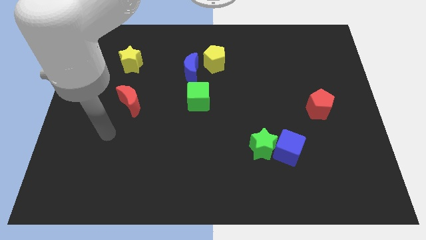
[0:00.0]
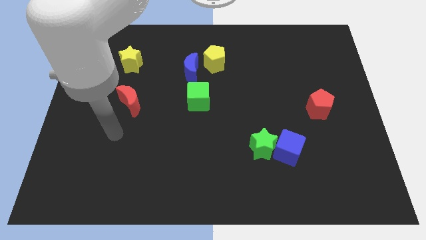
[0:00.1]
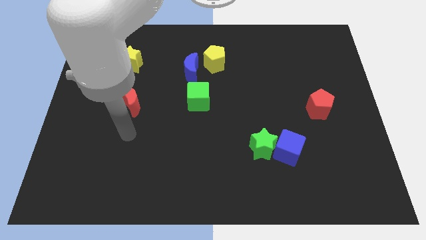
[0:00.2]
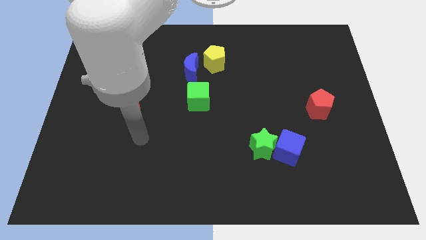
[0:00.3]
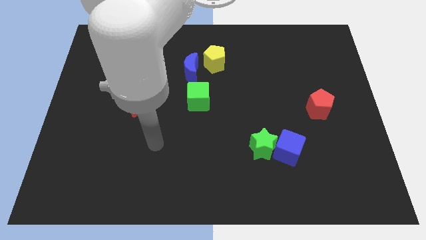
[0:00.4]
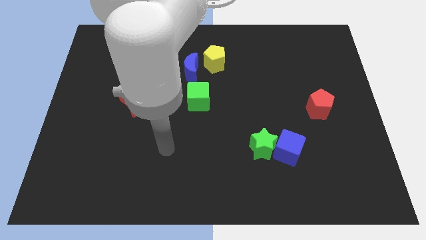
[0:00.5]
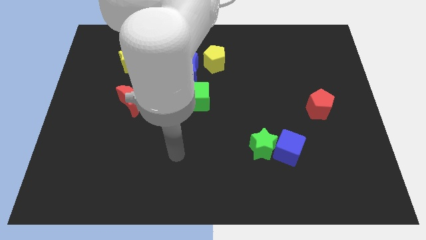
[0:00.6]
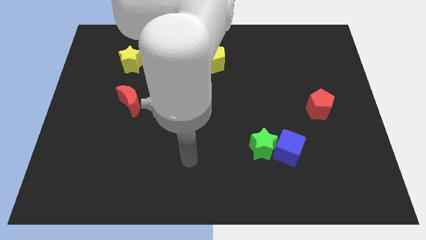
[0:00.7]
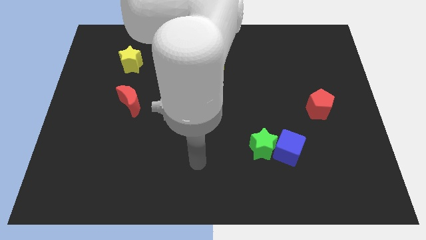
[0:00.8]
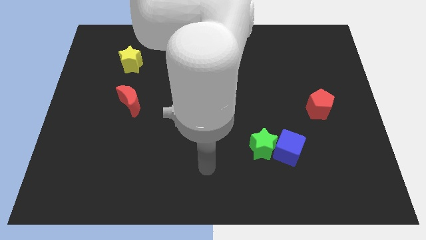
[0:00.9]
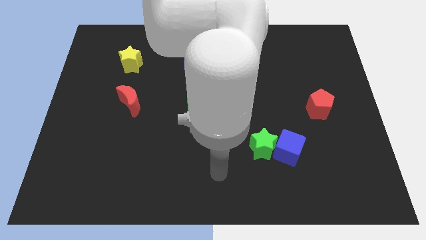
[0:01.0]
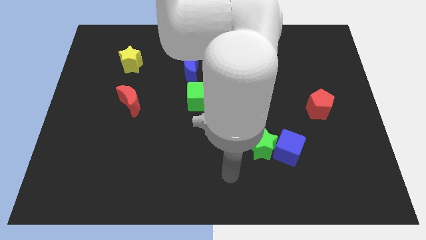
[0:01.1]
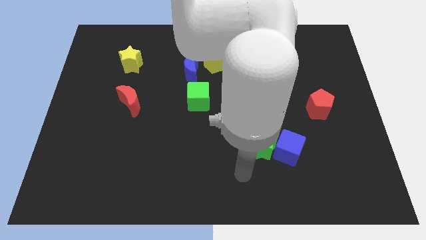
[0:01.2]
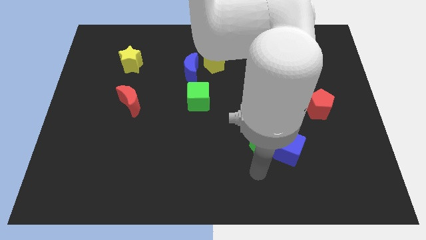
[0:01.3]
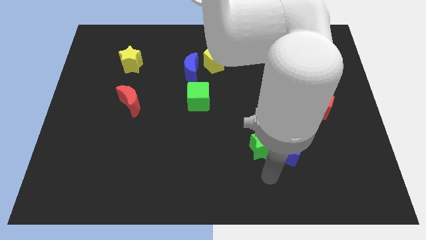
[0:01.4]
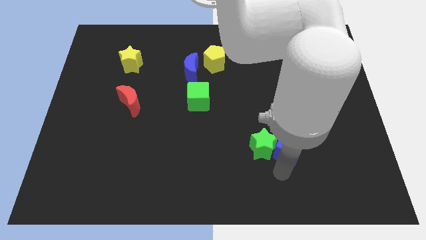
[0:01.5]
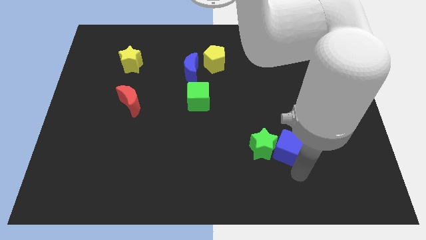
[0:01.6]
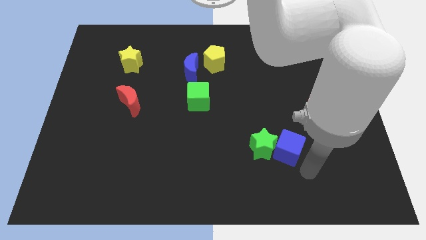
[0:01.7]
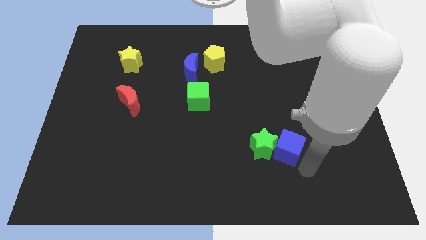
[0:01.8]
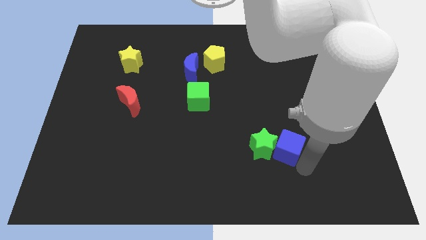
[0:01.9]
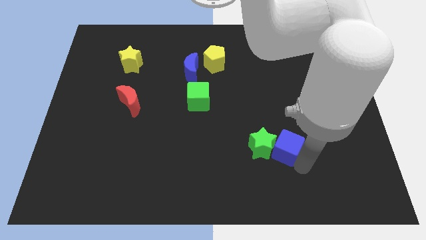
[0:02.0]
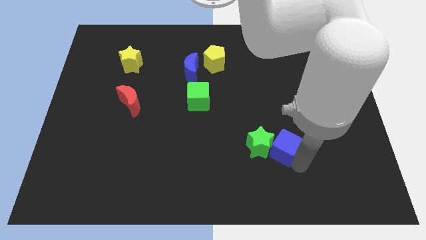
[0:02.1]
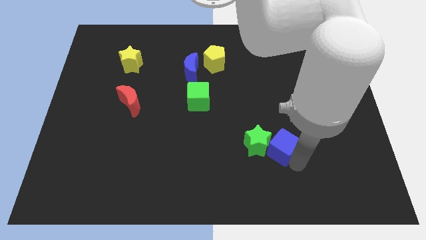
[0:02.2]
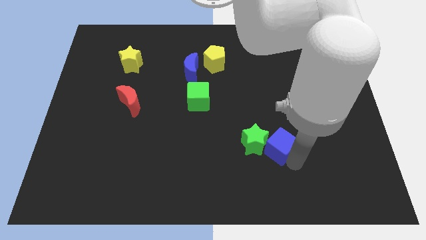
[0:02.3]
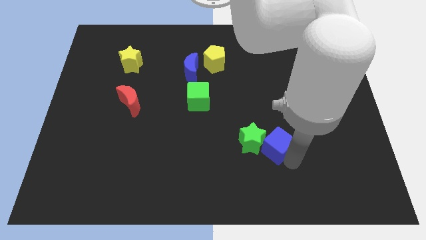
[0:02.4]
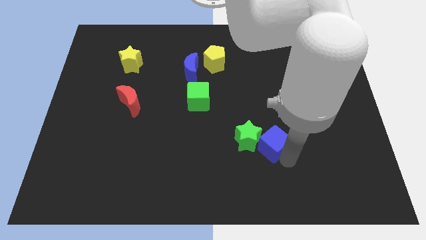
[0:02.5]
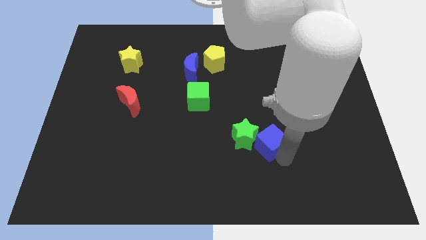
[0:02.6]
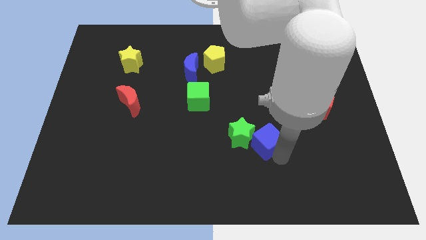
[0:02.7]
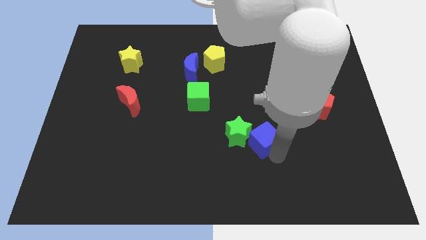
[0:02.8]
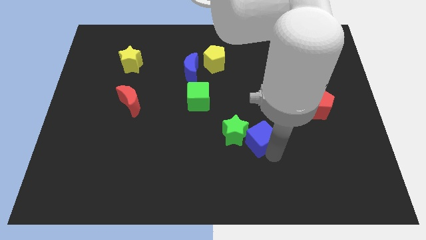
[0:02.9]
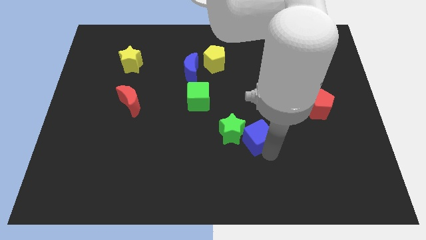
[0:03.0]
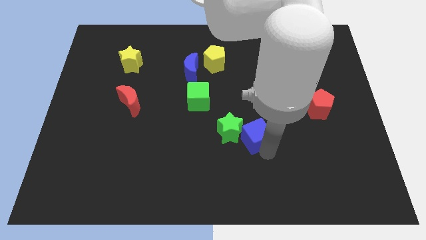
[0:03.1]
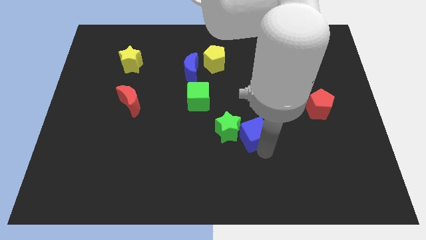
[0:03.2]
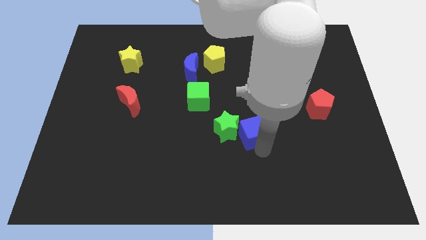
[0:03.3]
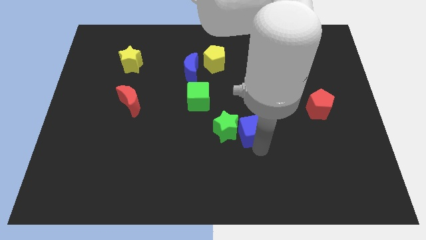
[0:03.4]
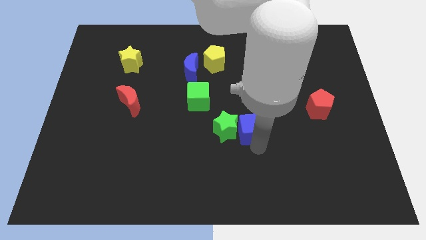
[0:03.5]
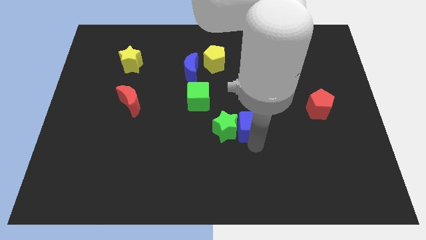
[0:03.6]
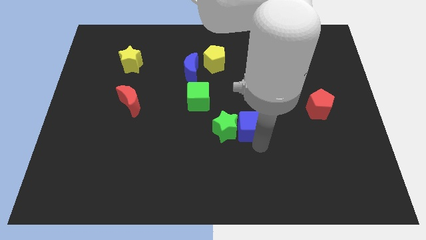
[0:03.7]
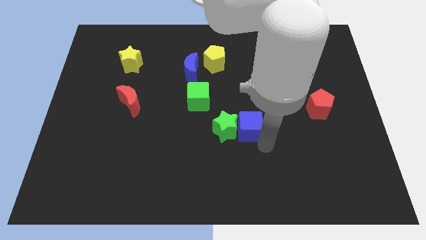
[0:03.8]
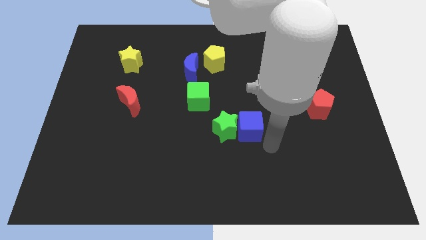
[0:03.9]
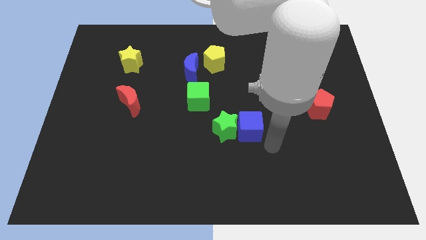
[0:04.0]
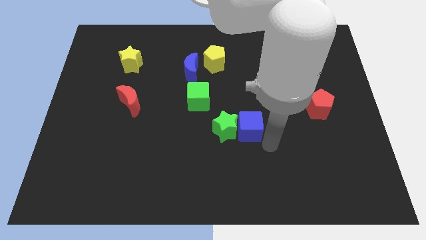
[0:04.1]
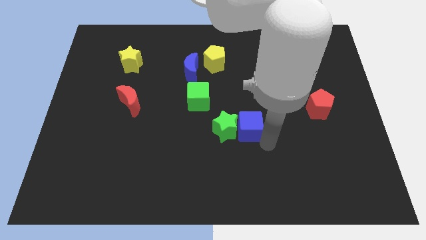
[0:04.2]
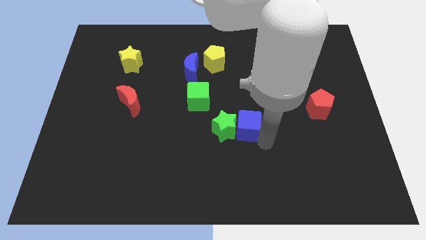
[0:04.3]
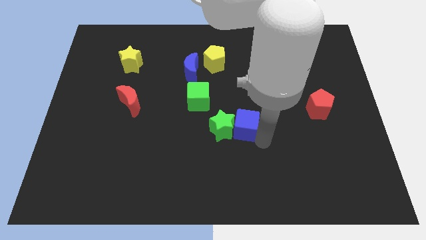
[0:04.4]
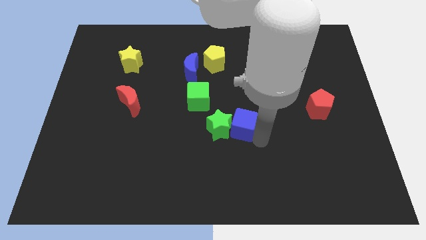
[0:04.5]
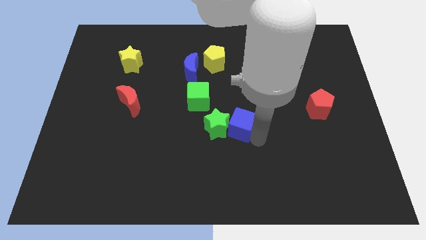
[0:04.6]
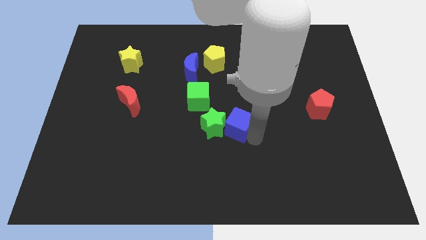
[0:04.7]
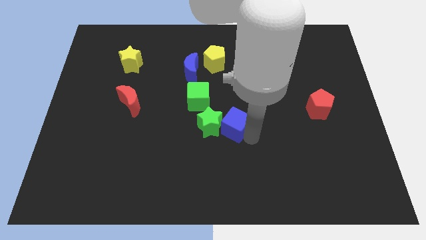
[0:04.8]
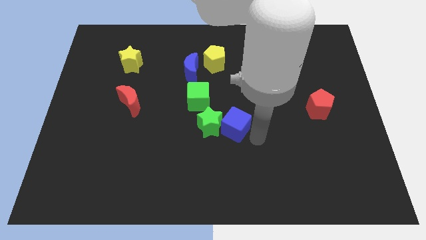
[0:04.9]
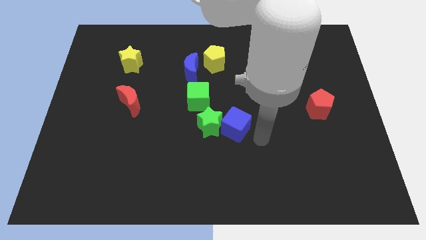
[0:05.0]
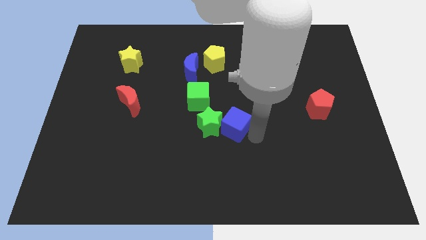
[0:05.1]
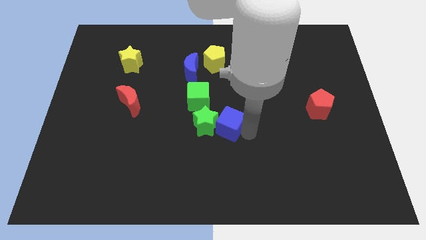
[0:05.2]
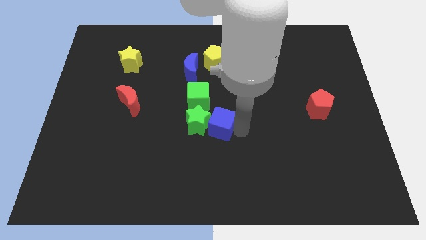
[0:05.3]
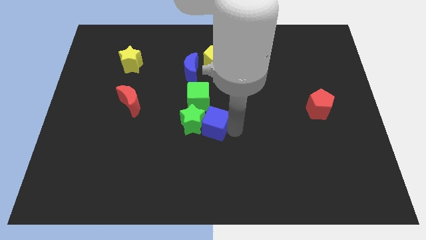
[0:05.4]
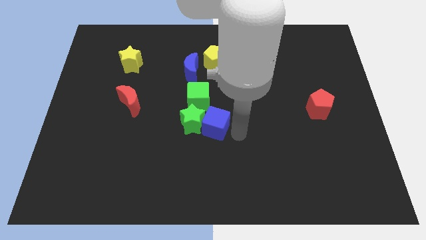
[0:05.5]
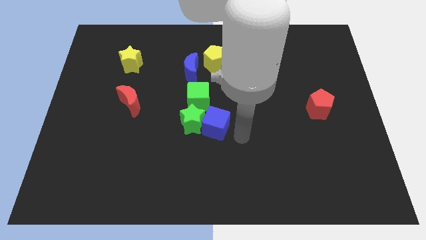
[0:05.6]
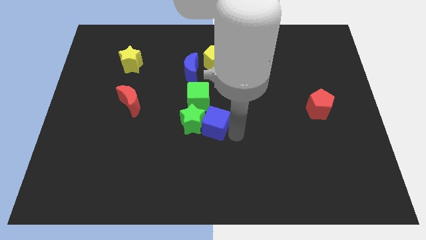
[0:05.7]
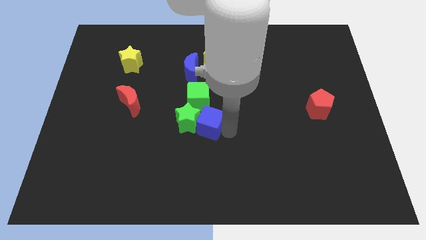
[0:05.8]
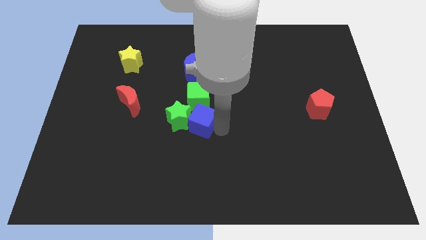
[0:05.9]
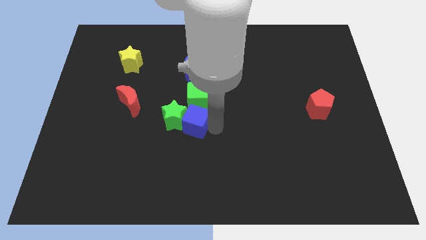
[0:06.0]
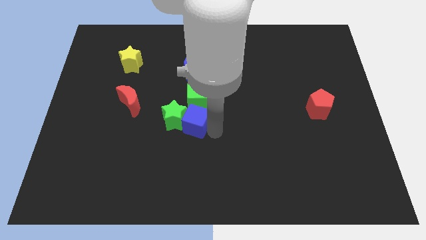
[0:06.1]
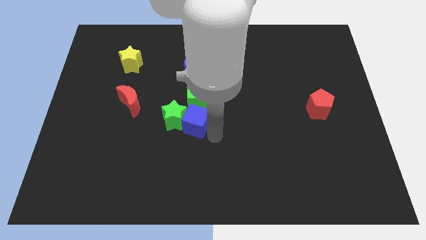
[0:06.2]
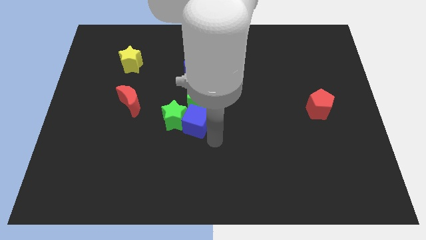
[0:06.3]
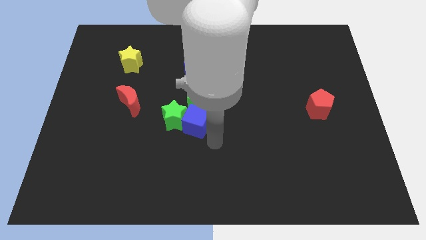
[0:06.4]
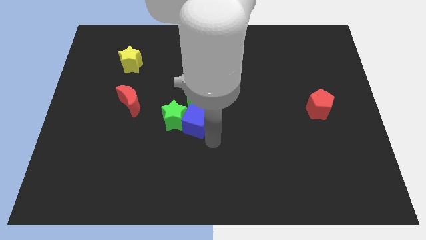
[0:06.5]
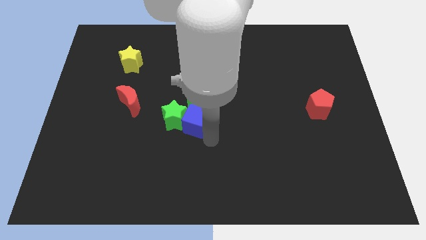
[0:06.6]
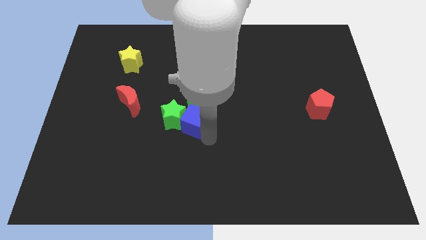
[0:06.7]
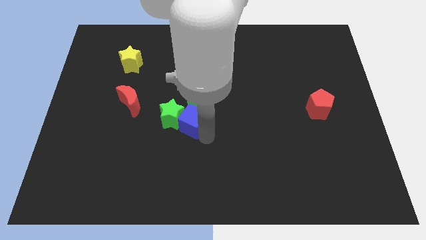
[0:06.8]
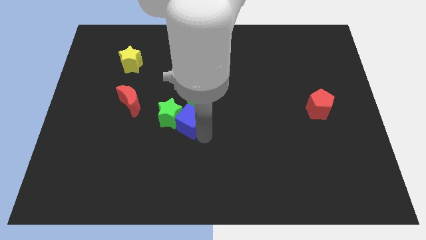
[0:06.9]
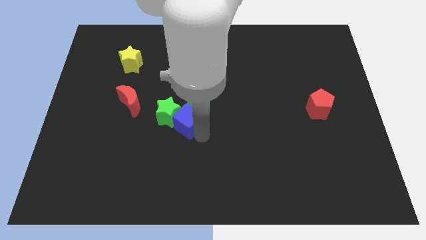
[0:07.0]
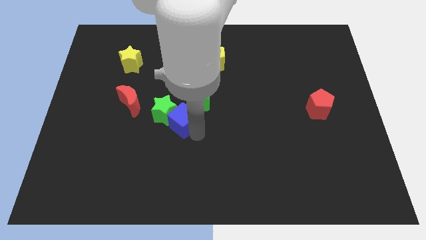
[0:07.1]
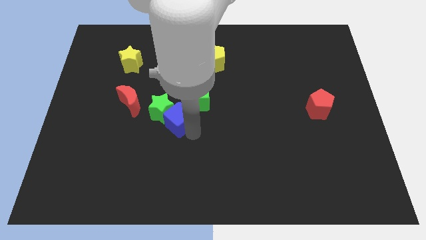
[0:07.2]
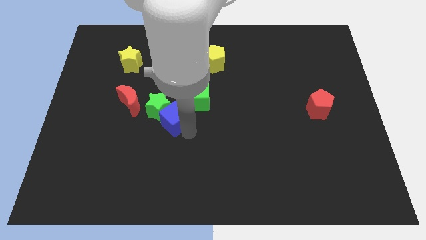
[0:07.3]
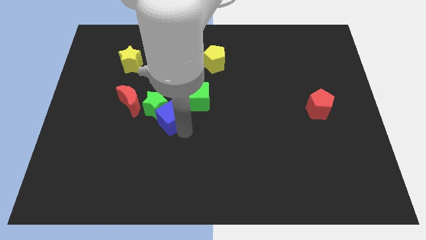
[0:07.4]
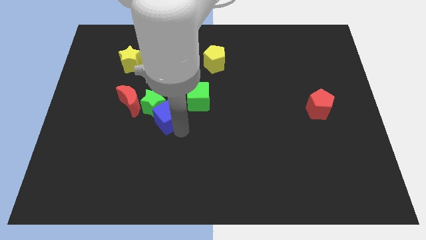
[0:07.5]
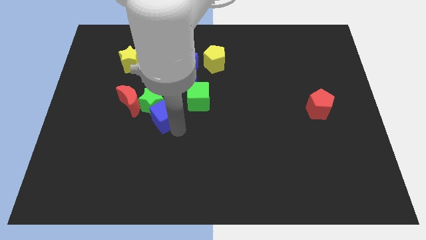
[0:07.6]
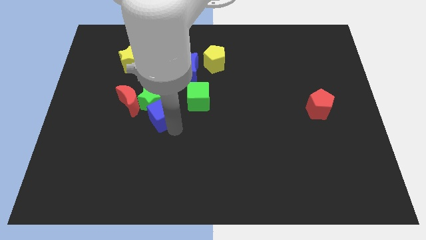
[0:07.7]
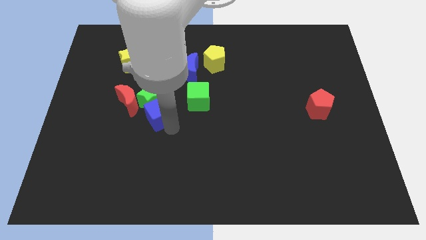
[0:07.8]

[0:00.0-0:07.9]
push the blue cube to the left side of the green cube
